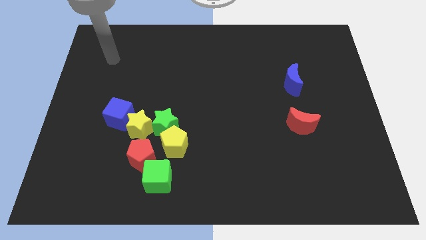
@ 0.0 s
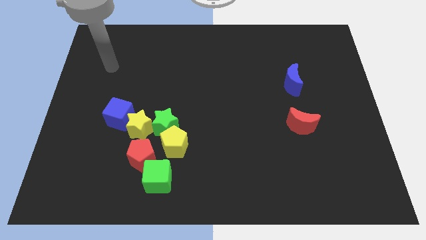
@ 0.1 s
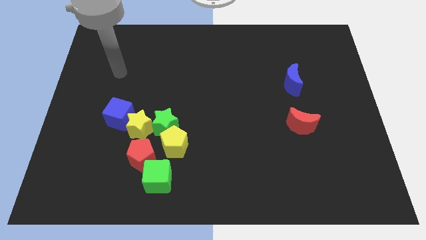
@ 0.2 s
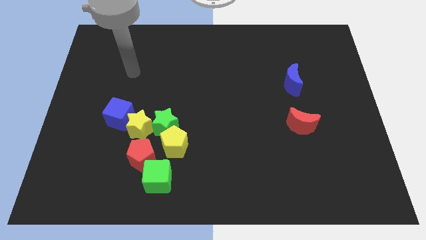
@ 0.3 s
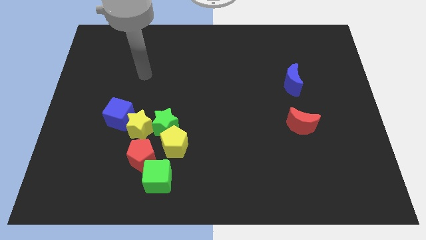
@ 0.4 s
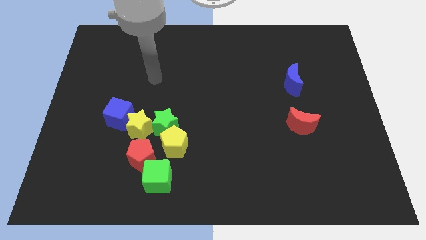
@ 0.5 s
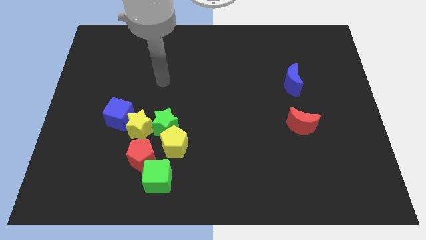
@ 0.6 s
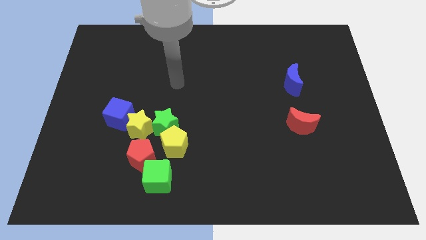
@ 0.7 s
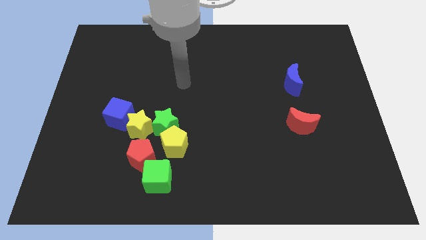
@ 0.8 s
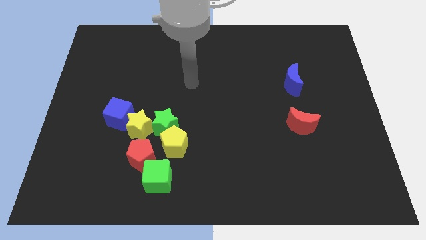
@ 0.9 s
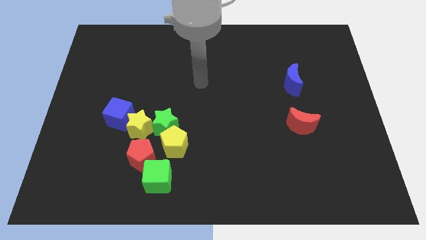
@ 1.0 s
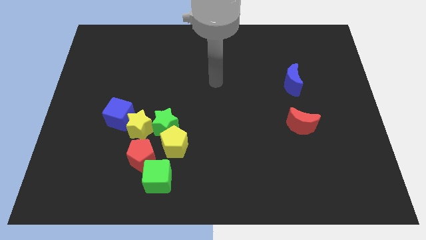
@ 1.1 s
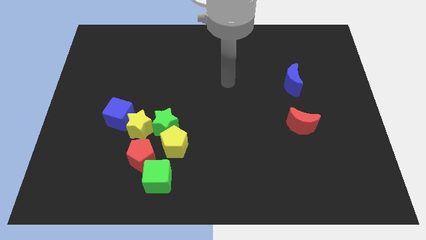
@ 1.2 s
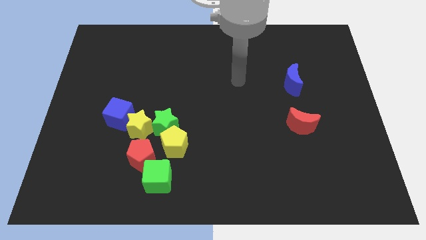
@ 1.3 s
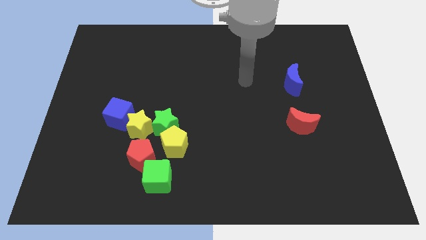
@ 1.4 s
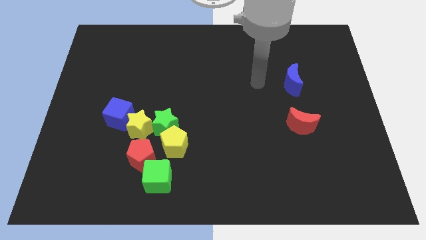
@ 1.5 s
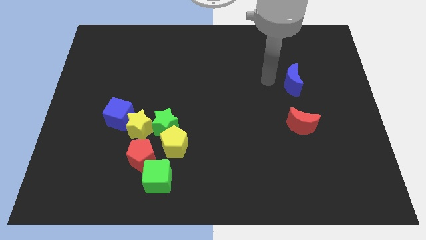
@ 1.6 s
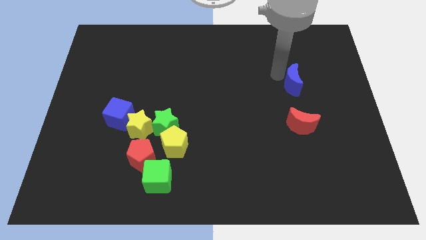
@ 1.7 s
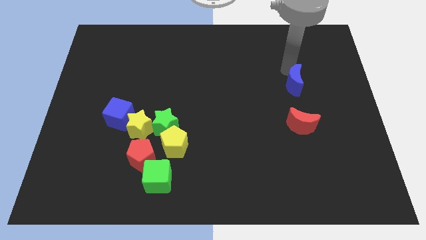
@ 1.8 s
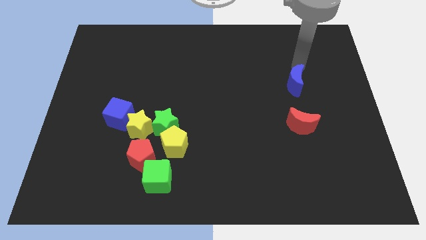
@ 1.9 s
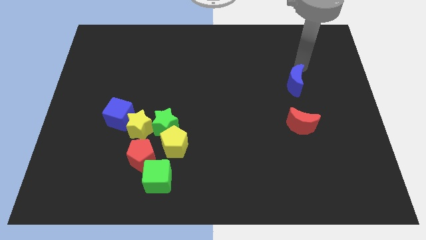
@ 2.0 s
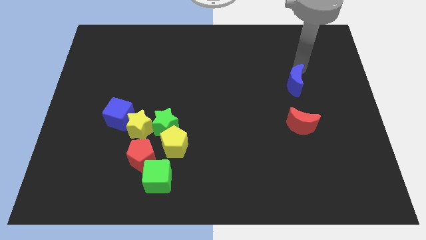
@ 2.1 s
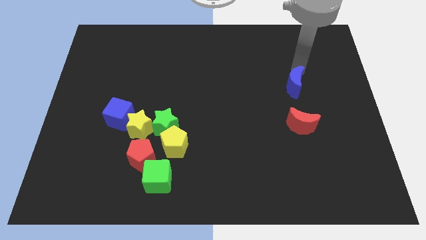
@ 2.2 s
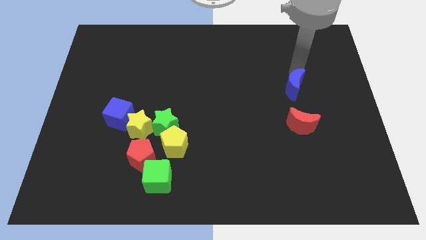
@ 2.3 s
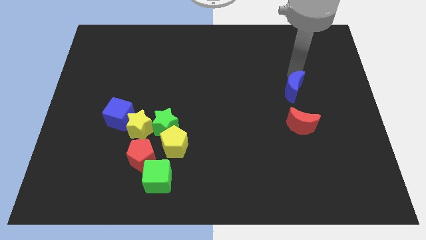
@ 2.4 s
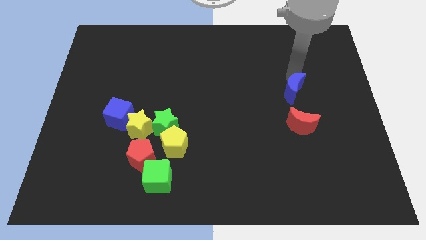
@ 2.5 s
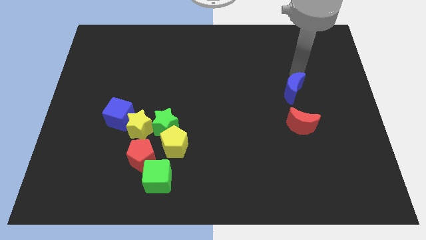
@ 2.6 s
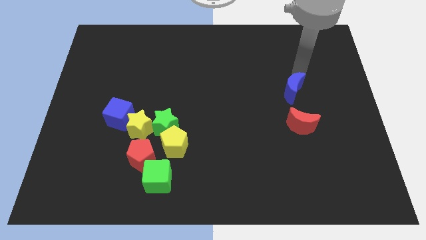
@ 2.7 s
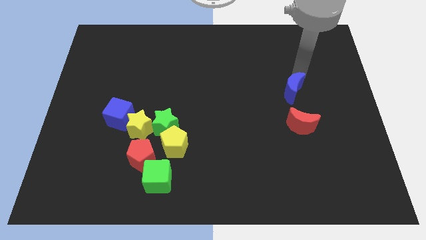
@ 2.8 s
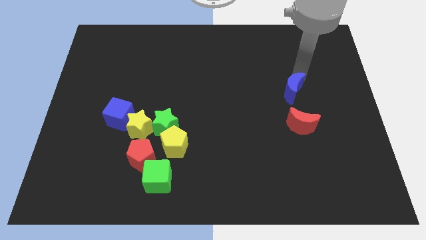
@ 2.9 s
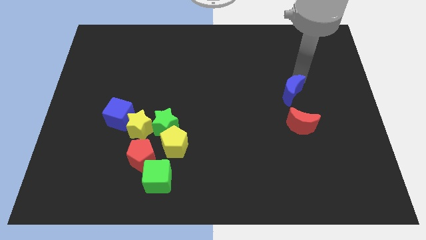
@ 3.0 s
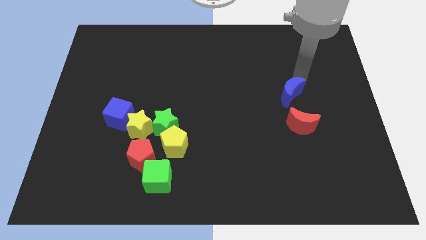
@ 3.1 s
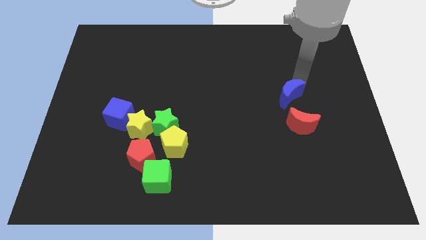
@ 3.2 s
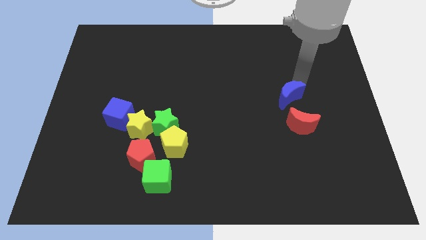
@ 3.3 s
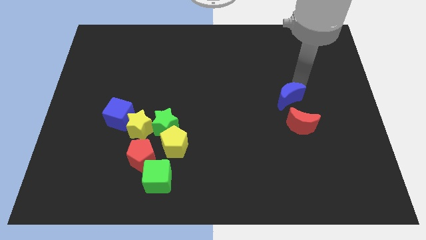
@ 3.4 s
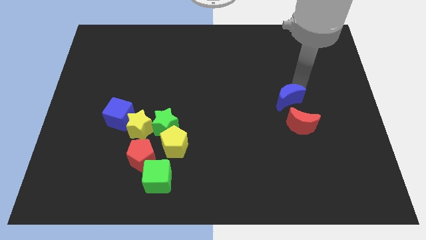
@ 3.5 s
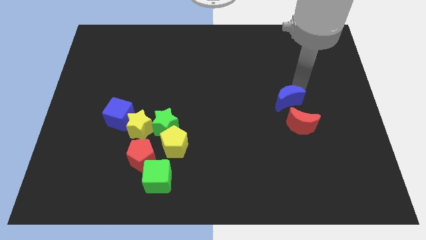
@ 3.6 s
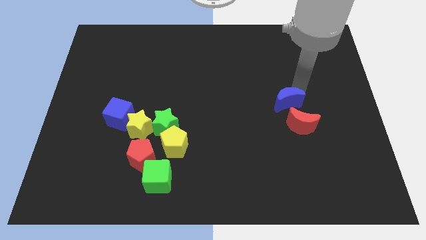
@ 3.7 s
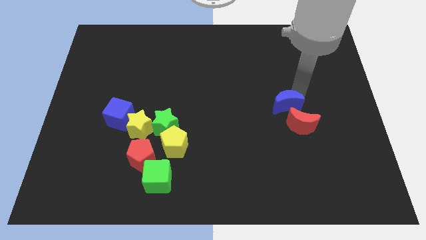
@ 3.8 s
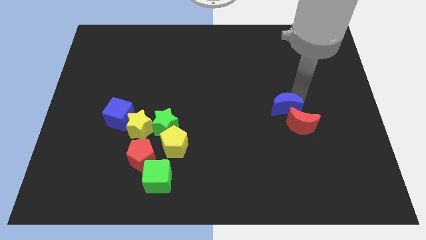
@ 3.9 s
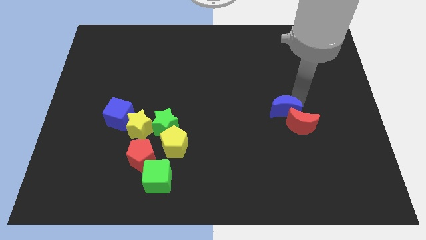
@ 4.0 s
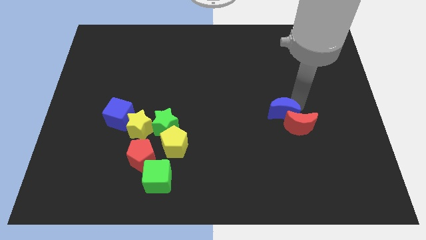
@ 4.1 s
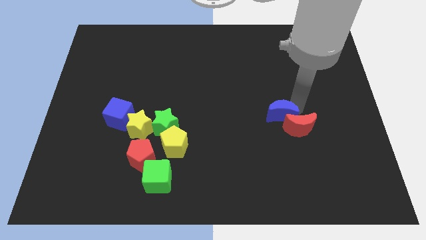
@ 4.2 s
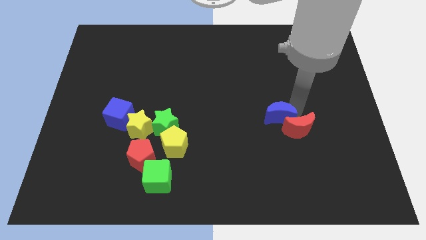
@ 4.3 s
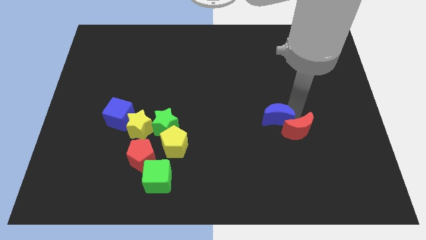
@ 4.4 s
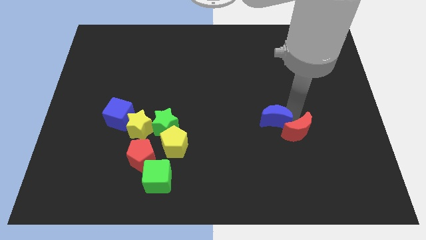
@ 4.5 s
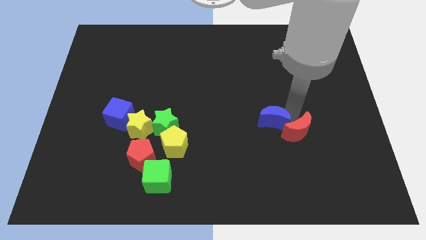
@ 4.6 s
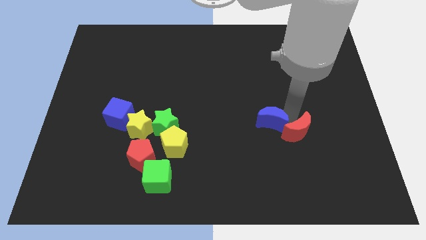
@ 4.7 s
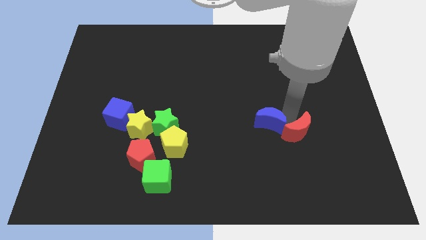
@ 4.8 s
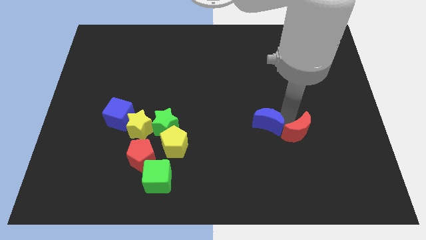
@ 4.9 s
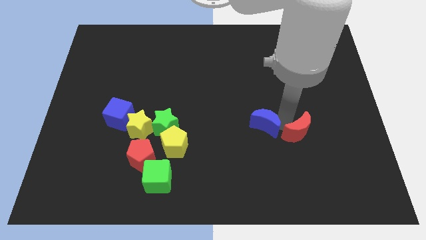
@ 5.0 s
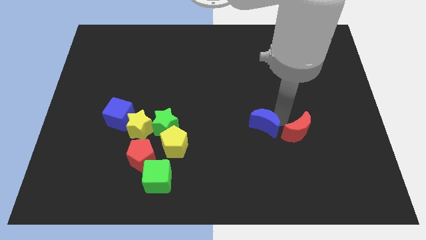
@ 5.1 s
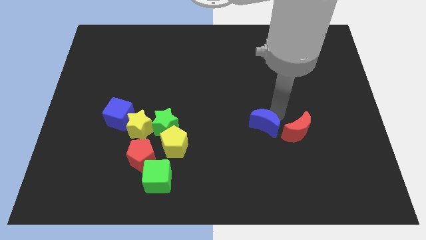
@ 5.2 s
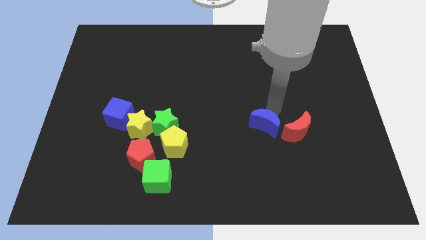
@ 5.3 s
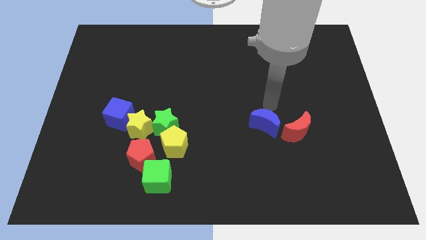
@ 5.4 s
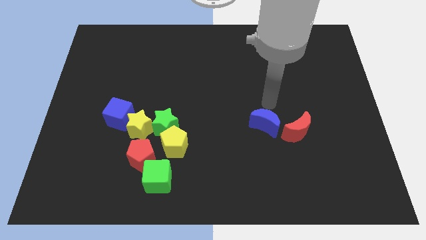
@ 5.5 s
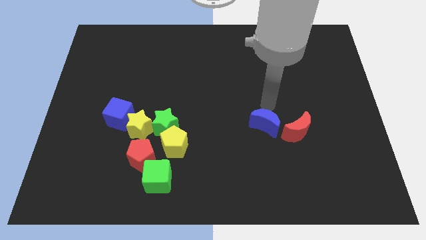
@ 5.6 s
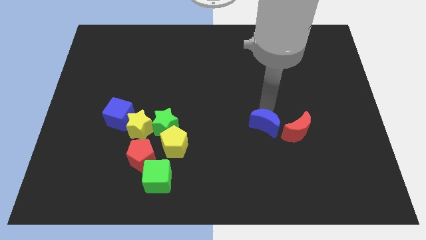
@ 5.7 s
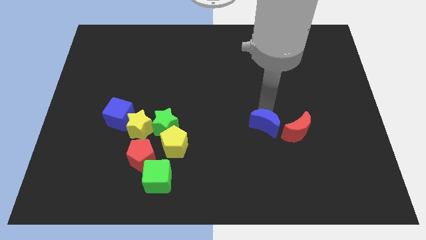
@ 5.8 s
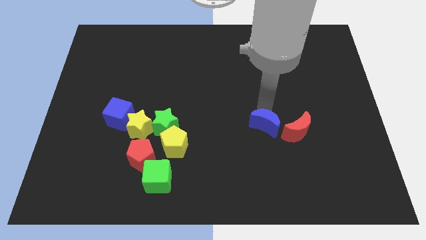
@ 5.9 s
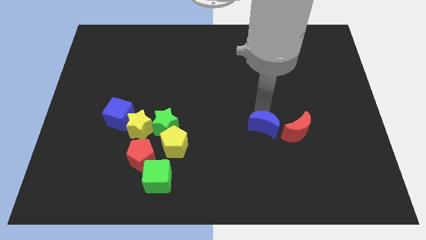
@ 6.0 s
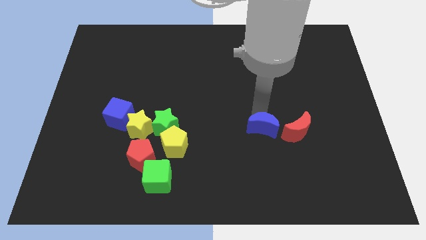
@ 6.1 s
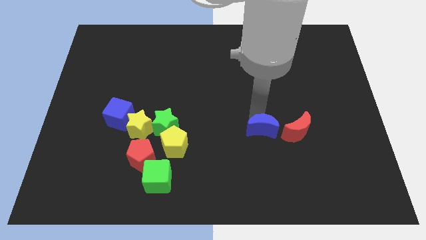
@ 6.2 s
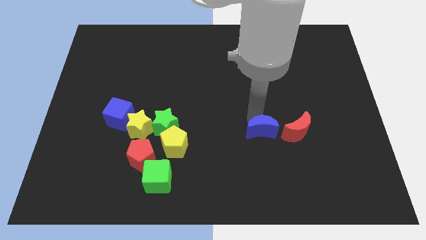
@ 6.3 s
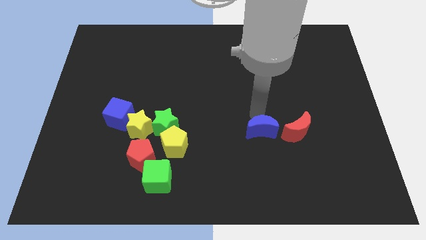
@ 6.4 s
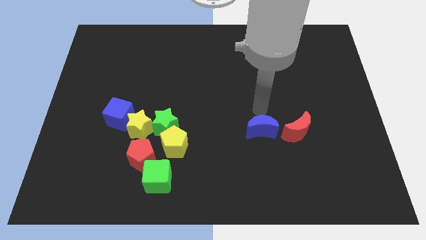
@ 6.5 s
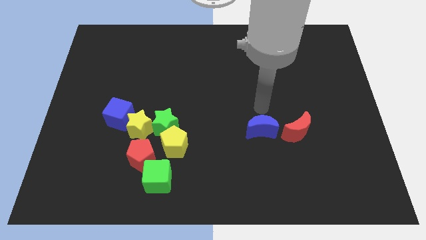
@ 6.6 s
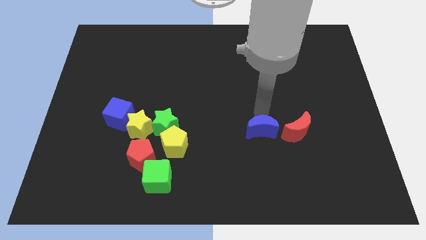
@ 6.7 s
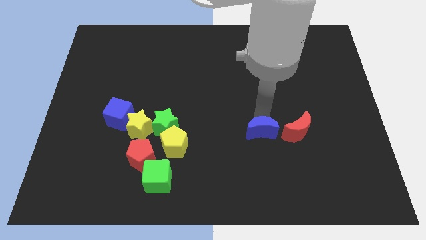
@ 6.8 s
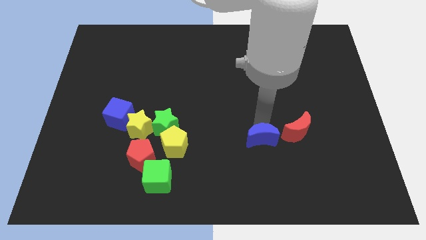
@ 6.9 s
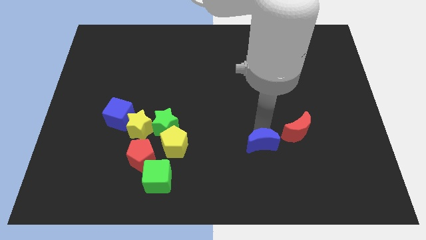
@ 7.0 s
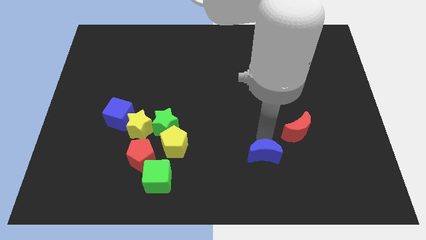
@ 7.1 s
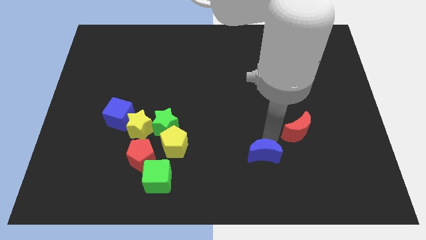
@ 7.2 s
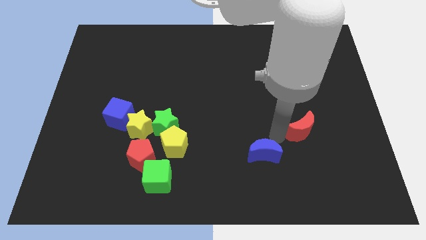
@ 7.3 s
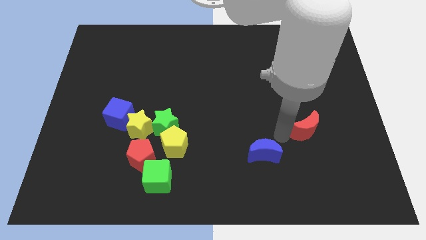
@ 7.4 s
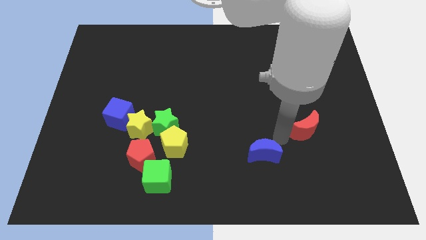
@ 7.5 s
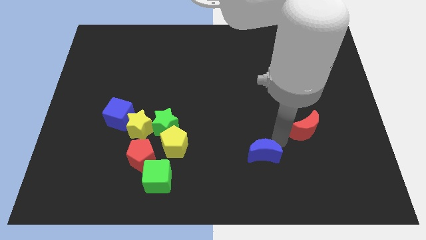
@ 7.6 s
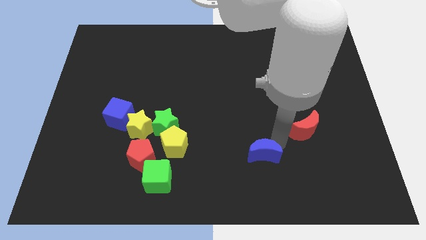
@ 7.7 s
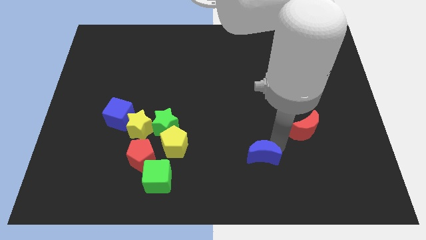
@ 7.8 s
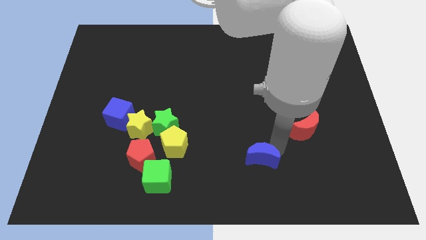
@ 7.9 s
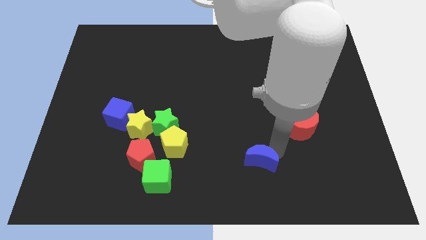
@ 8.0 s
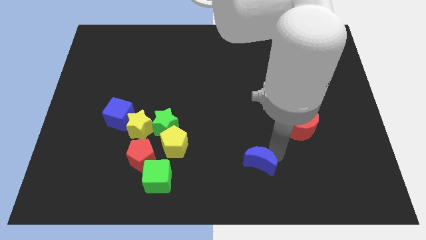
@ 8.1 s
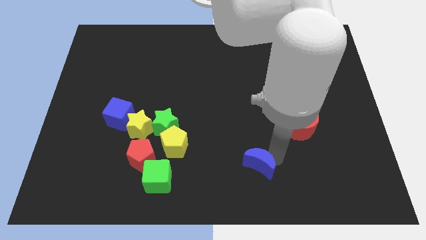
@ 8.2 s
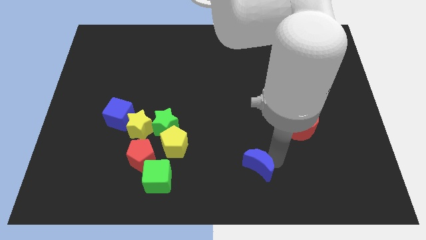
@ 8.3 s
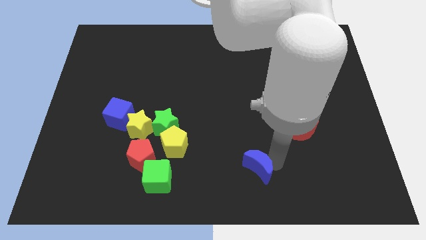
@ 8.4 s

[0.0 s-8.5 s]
put the blue moon to the bottom
